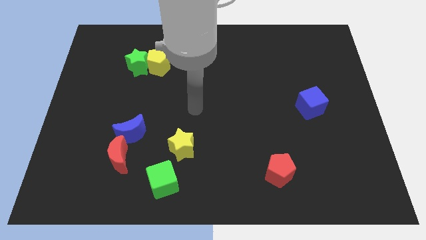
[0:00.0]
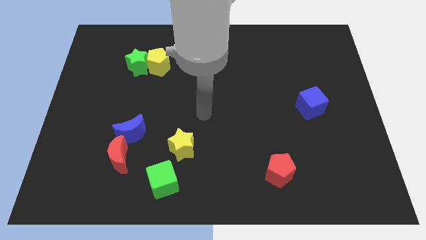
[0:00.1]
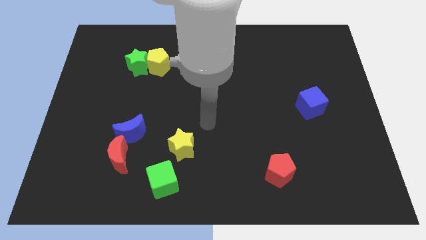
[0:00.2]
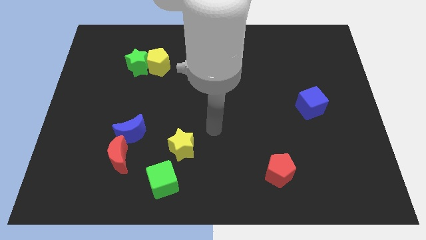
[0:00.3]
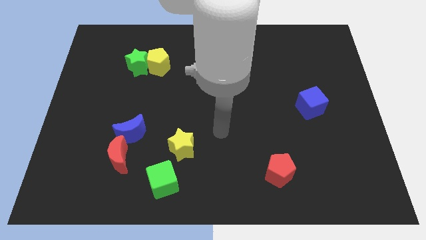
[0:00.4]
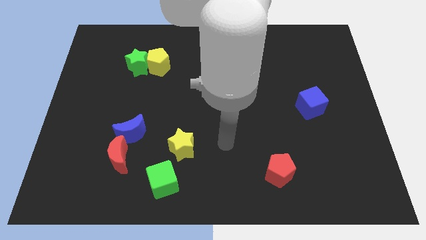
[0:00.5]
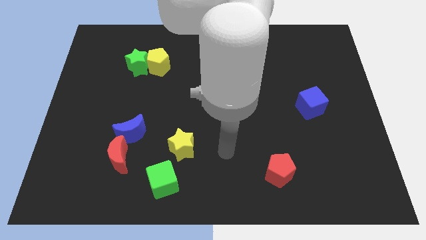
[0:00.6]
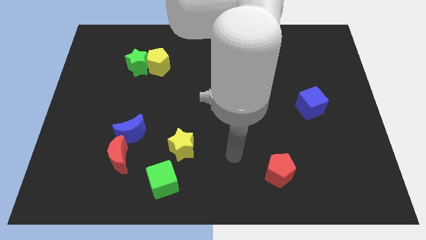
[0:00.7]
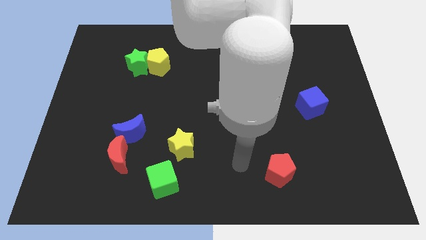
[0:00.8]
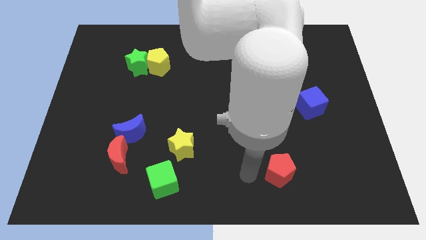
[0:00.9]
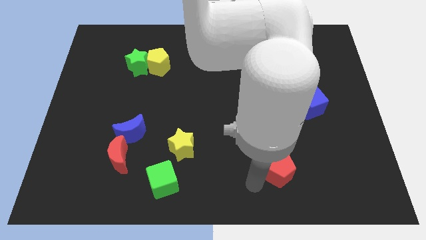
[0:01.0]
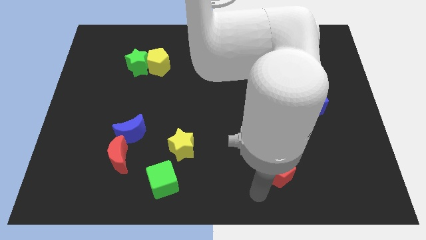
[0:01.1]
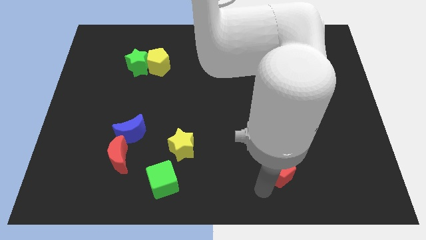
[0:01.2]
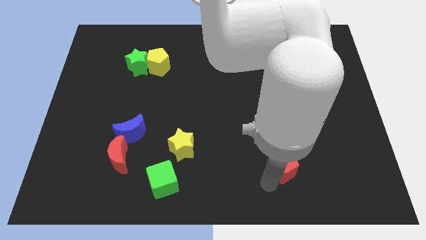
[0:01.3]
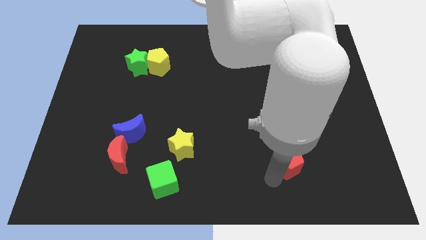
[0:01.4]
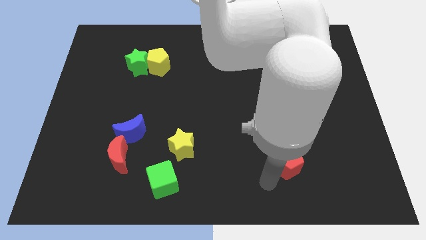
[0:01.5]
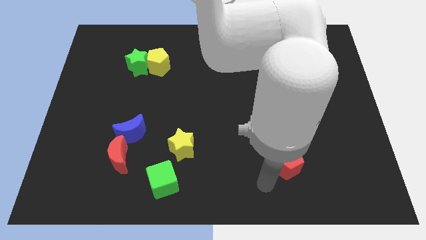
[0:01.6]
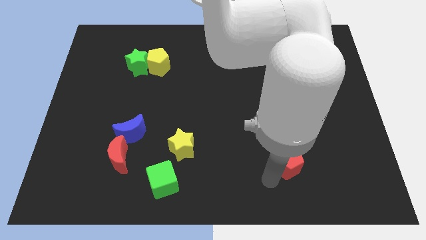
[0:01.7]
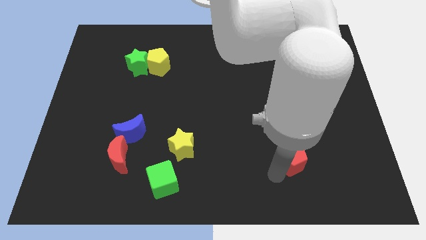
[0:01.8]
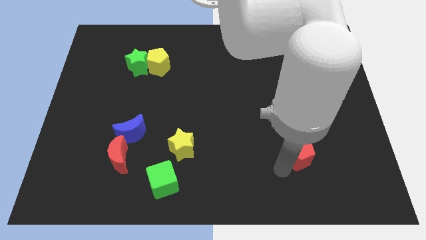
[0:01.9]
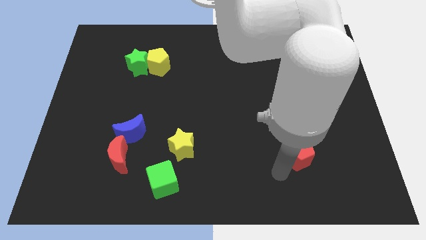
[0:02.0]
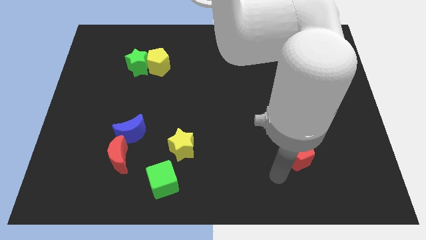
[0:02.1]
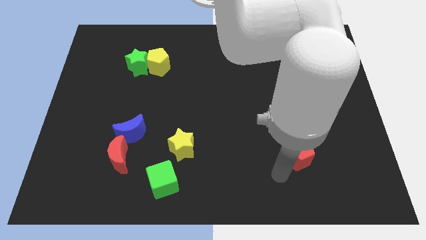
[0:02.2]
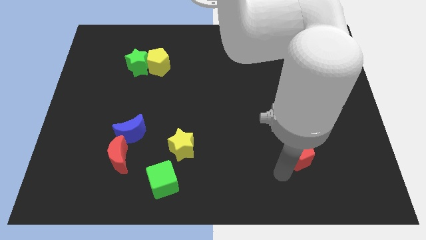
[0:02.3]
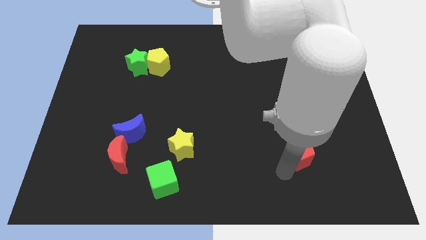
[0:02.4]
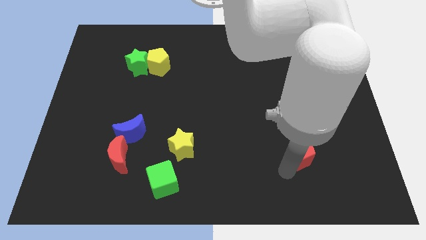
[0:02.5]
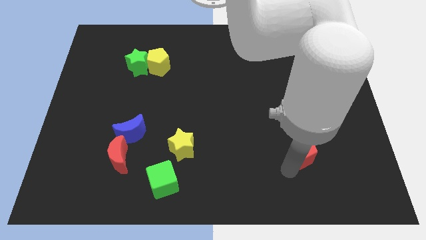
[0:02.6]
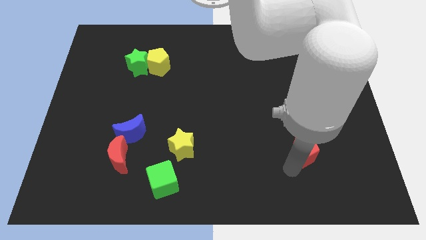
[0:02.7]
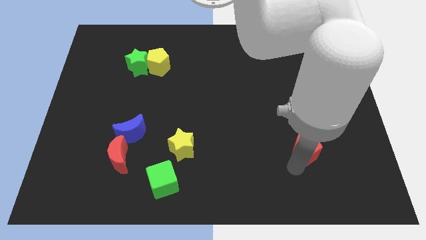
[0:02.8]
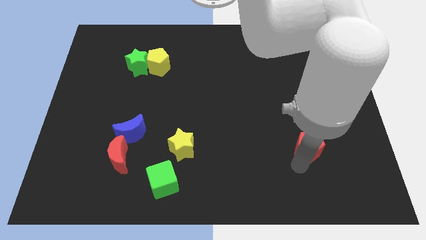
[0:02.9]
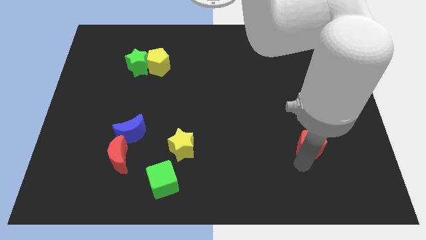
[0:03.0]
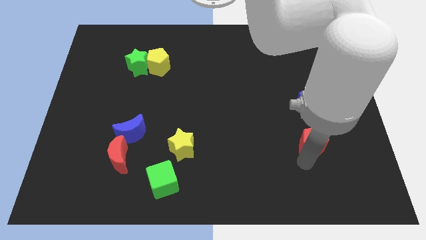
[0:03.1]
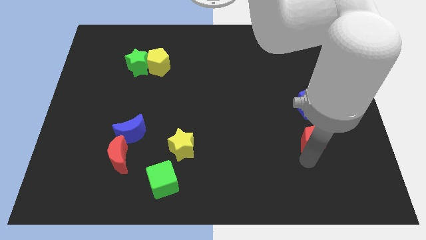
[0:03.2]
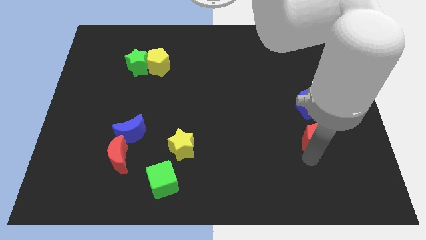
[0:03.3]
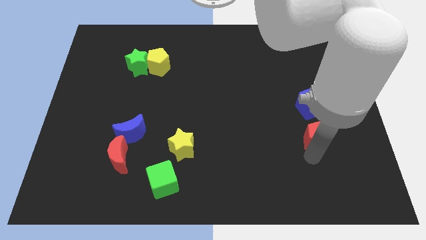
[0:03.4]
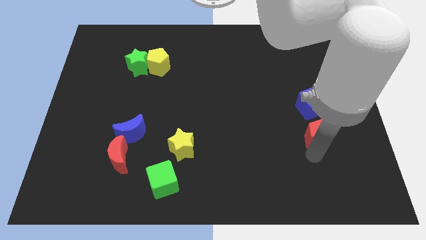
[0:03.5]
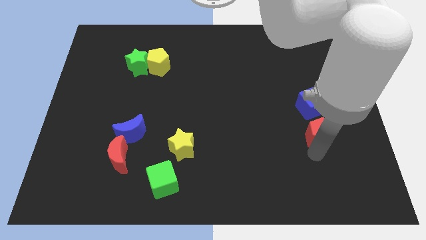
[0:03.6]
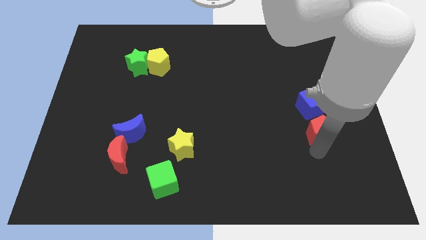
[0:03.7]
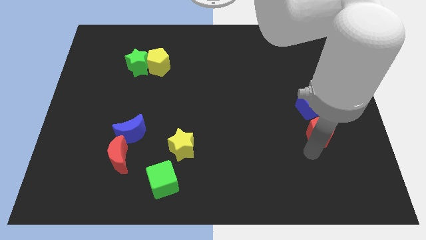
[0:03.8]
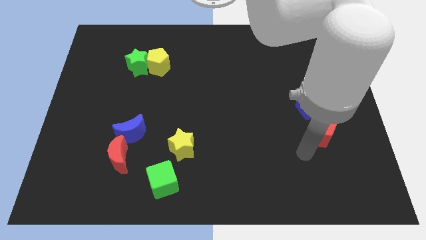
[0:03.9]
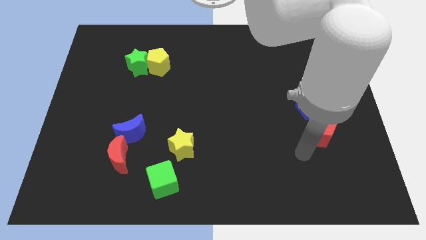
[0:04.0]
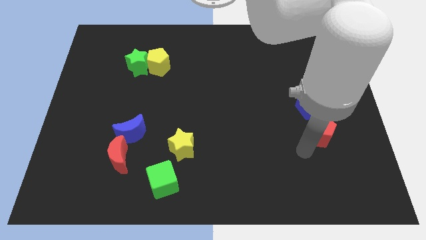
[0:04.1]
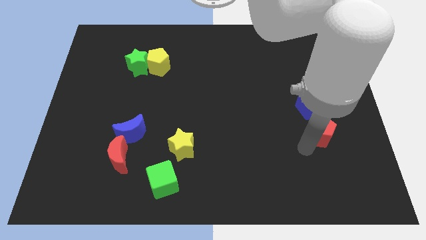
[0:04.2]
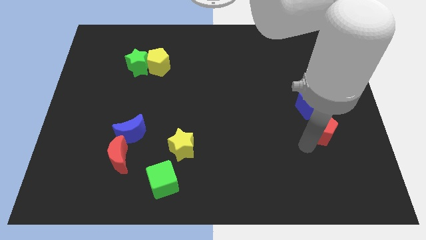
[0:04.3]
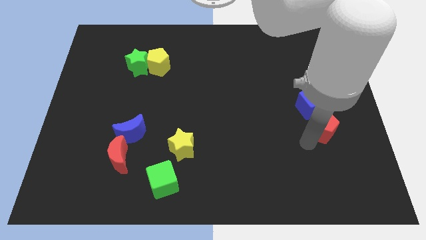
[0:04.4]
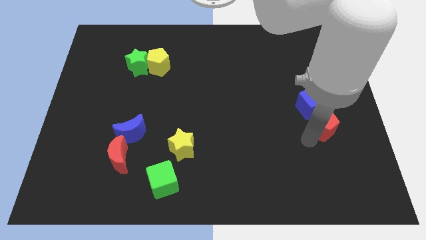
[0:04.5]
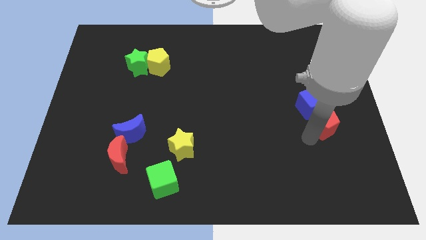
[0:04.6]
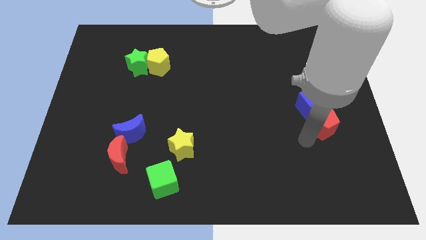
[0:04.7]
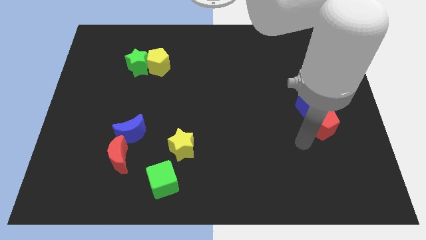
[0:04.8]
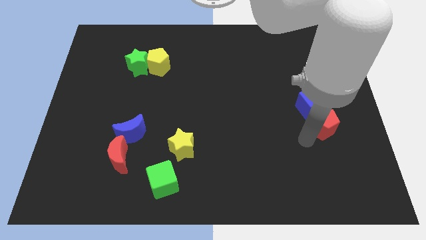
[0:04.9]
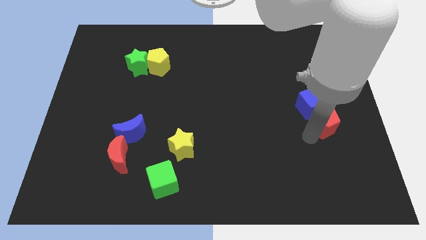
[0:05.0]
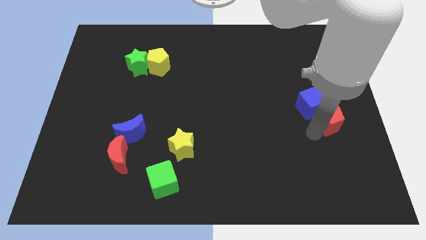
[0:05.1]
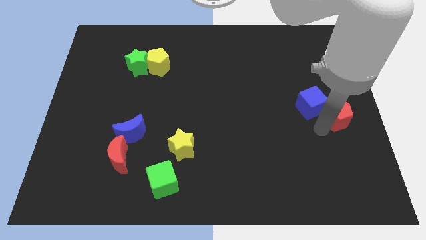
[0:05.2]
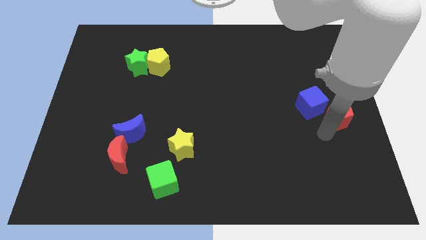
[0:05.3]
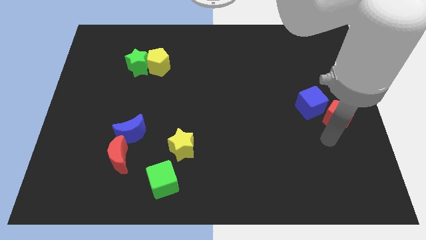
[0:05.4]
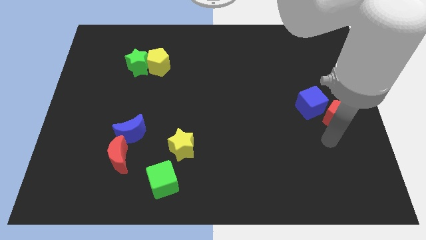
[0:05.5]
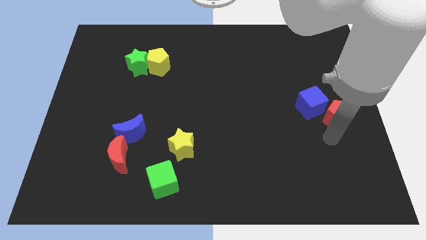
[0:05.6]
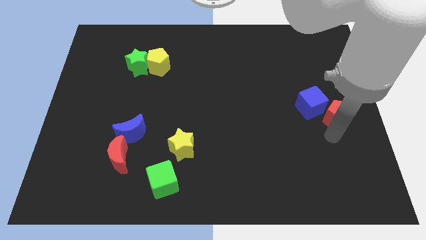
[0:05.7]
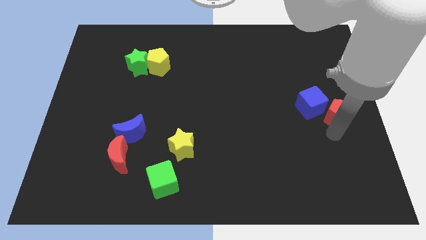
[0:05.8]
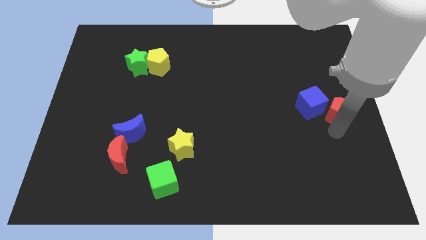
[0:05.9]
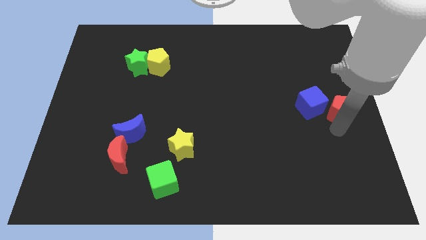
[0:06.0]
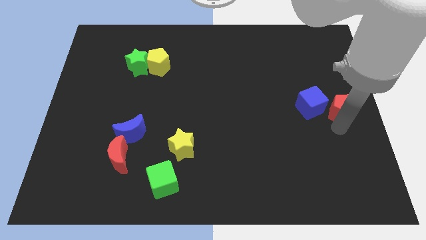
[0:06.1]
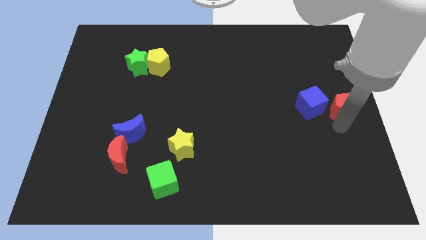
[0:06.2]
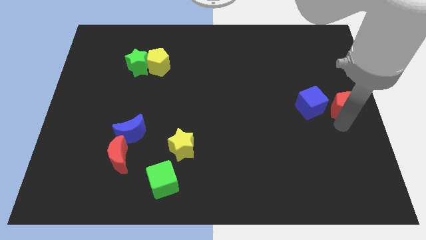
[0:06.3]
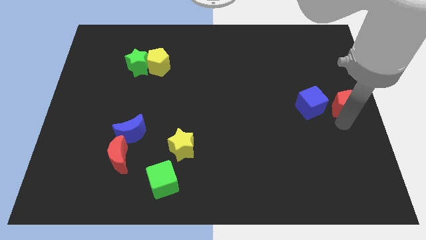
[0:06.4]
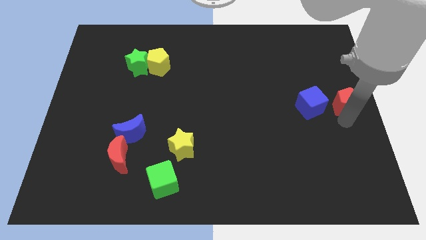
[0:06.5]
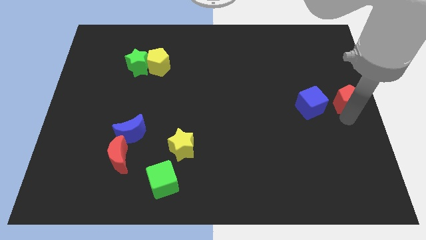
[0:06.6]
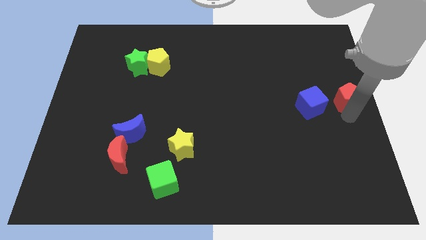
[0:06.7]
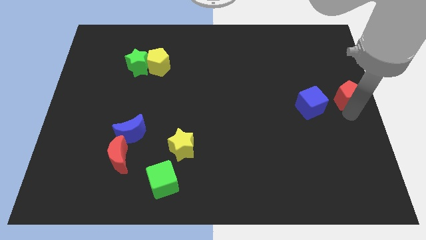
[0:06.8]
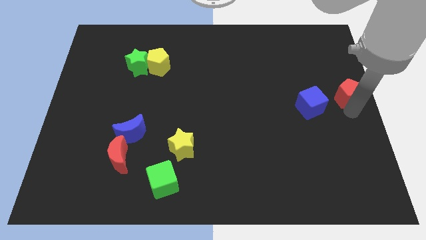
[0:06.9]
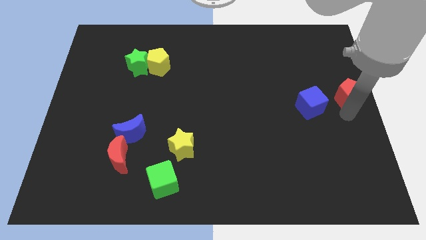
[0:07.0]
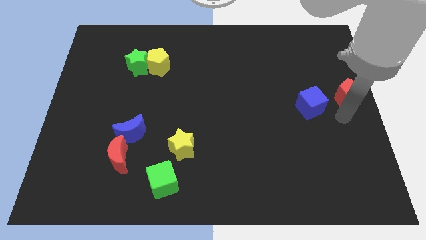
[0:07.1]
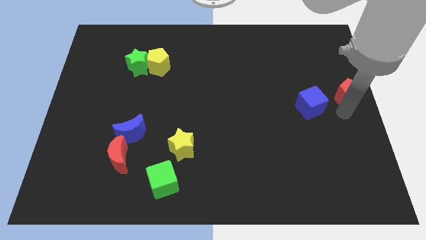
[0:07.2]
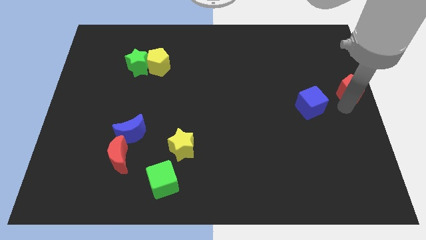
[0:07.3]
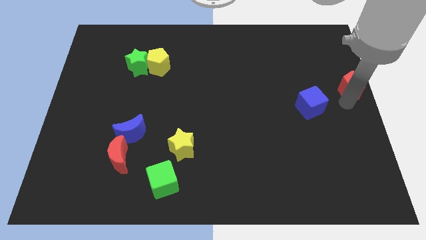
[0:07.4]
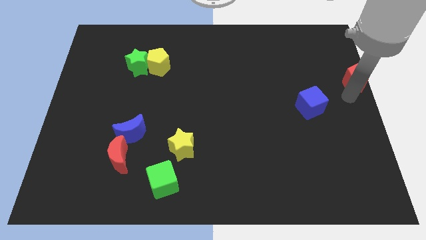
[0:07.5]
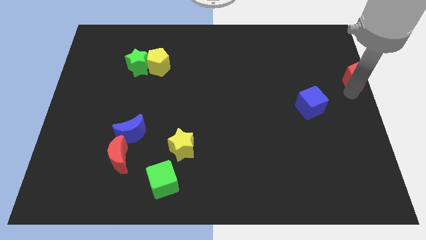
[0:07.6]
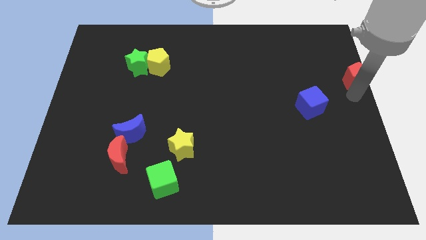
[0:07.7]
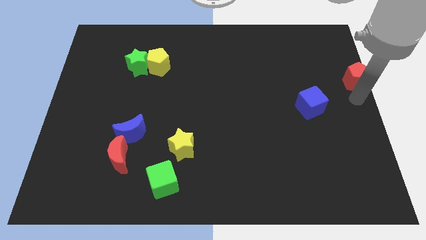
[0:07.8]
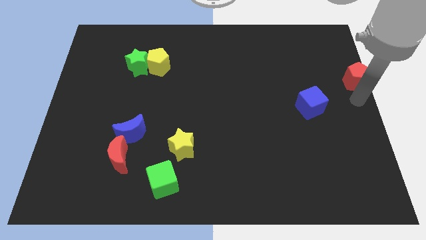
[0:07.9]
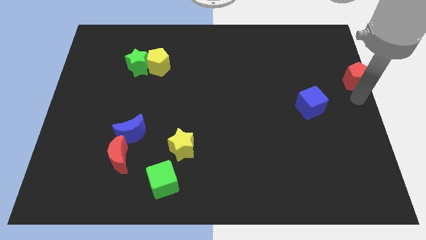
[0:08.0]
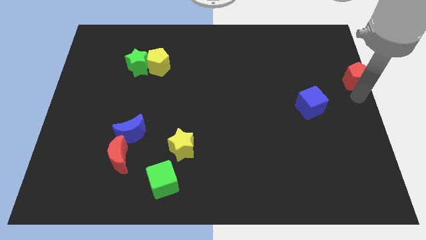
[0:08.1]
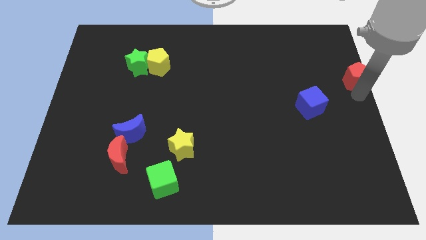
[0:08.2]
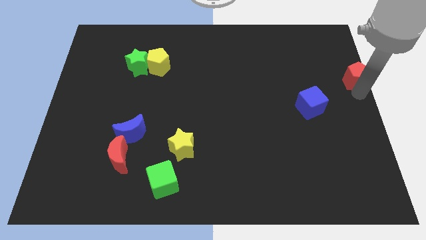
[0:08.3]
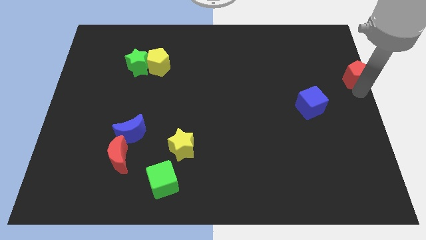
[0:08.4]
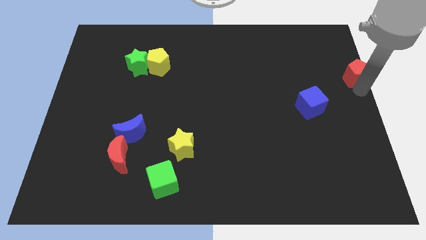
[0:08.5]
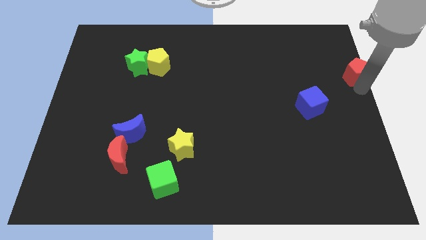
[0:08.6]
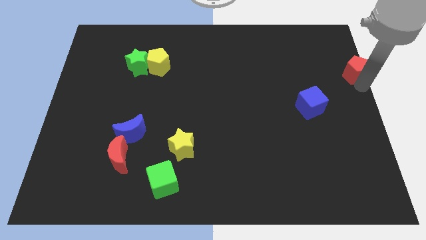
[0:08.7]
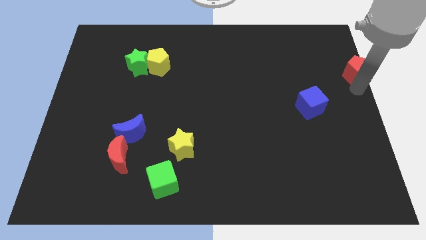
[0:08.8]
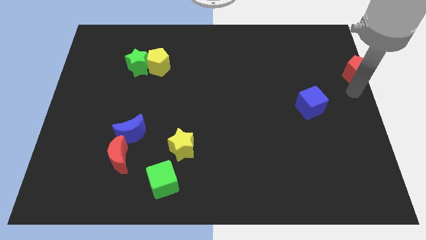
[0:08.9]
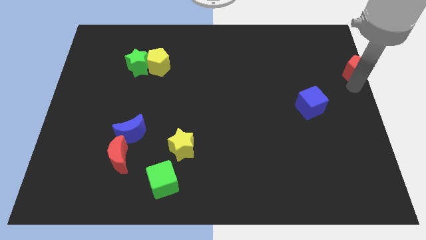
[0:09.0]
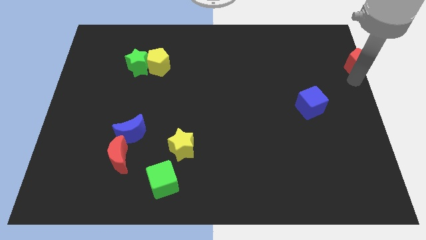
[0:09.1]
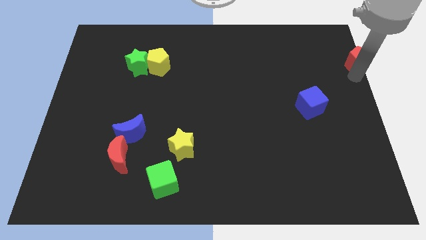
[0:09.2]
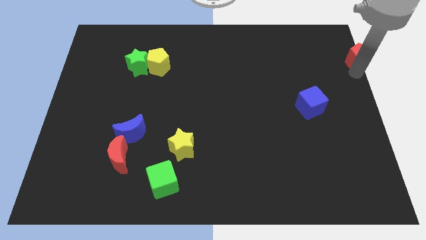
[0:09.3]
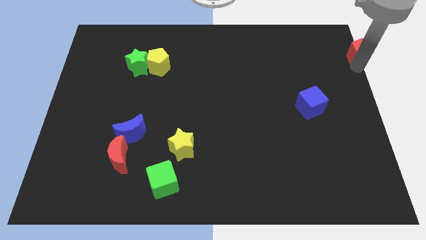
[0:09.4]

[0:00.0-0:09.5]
slide the red pentagon to the top right of the board
